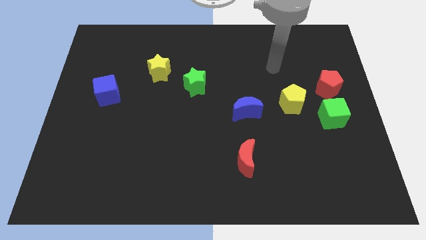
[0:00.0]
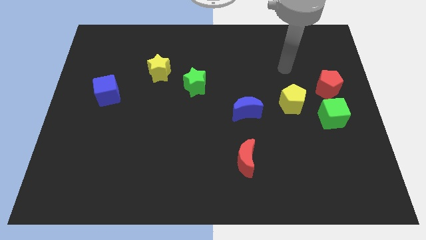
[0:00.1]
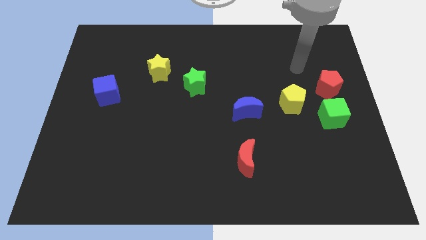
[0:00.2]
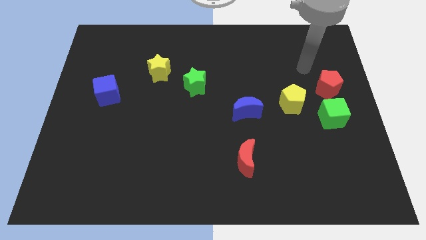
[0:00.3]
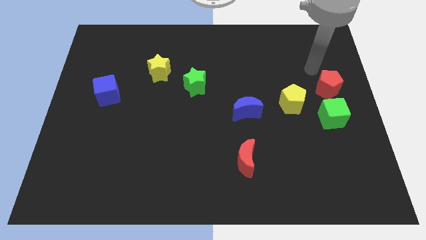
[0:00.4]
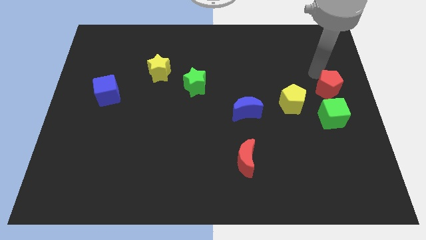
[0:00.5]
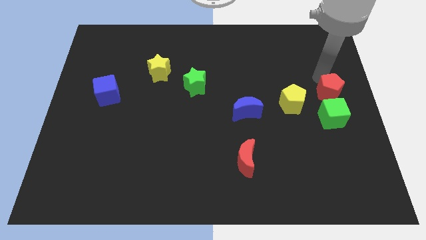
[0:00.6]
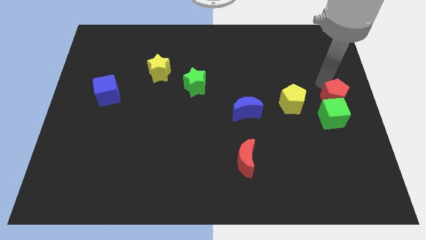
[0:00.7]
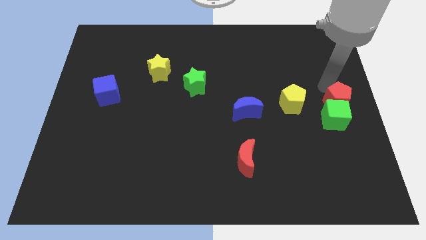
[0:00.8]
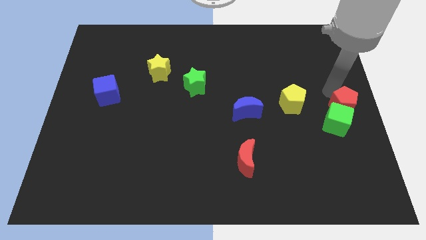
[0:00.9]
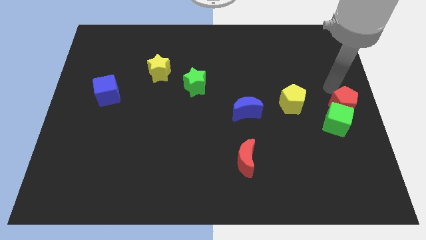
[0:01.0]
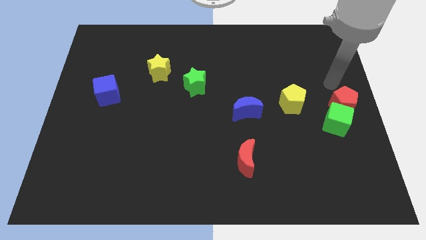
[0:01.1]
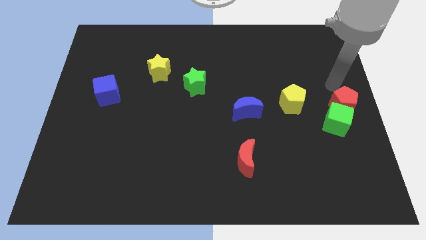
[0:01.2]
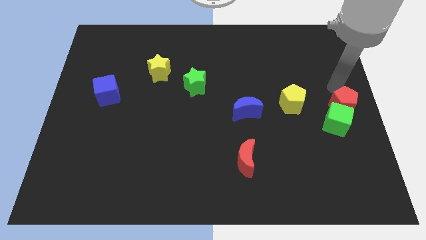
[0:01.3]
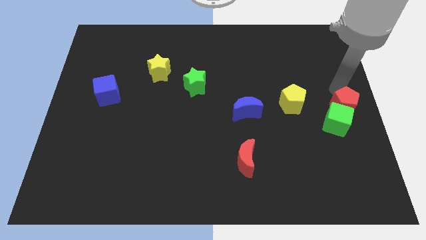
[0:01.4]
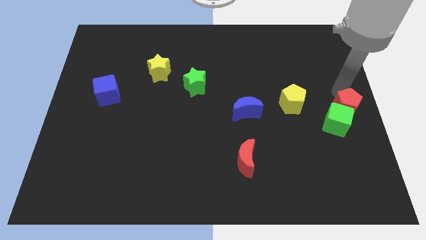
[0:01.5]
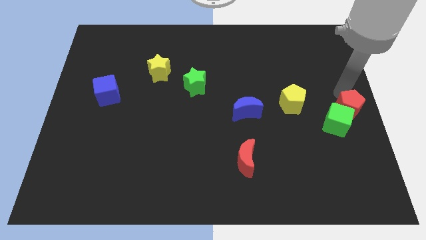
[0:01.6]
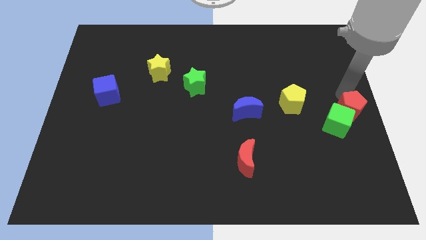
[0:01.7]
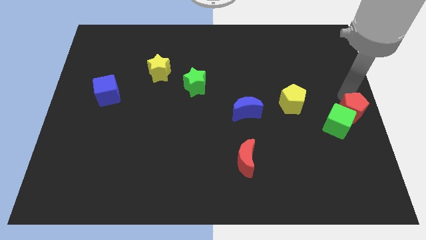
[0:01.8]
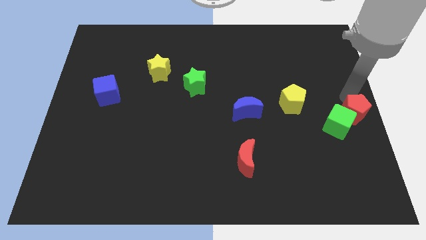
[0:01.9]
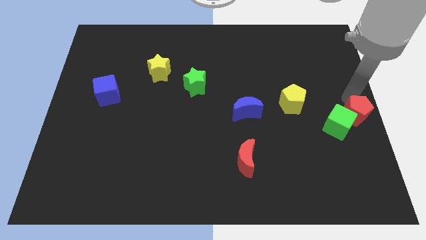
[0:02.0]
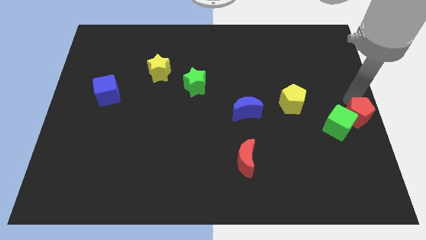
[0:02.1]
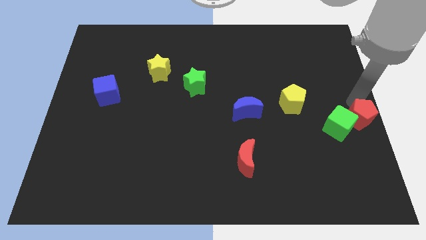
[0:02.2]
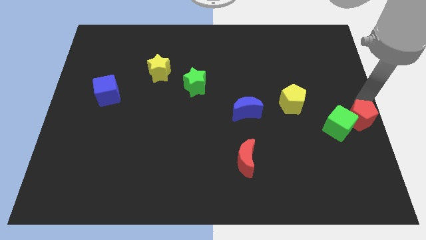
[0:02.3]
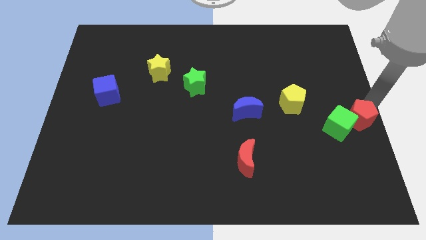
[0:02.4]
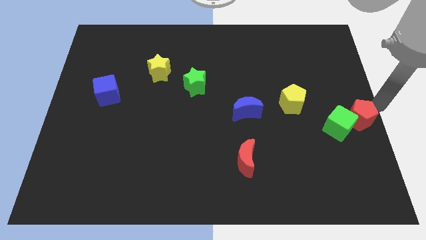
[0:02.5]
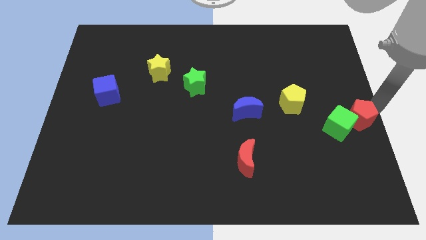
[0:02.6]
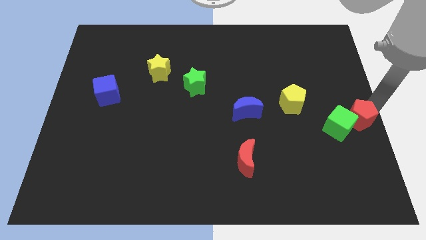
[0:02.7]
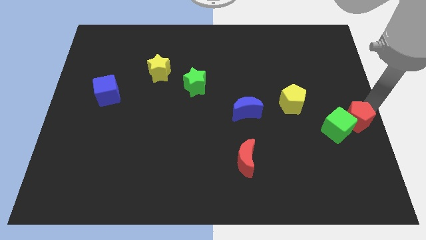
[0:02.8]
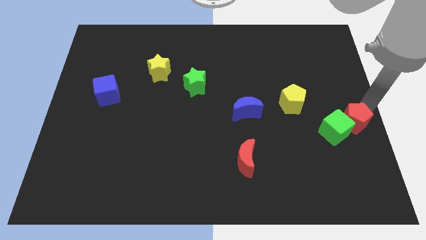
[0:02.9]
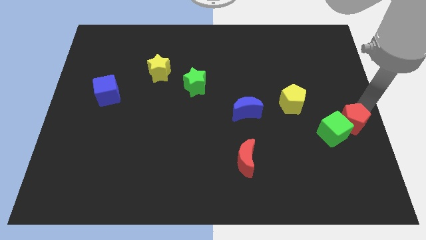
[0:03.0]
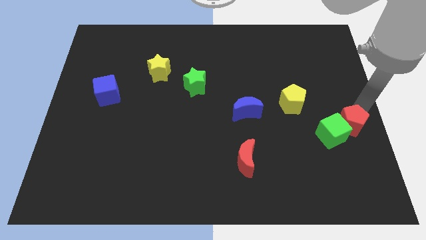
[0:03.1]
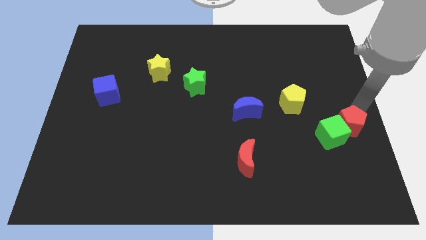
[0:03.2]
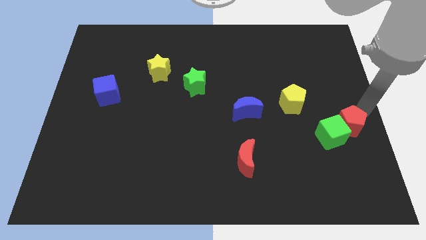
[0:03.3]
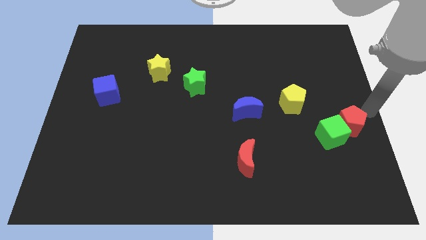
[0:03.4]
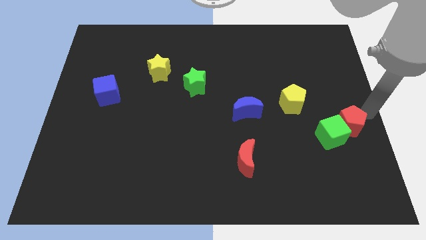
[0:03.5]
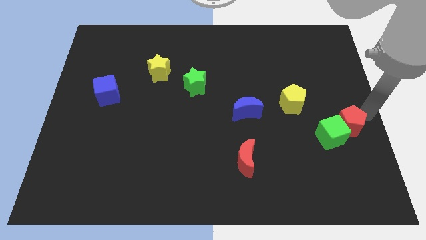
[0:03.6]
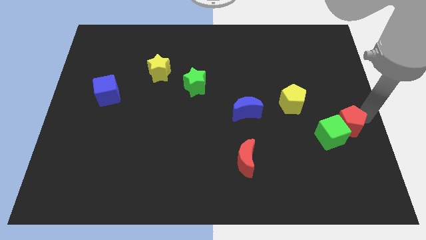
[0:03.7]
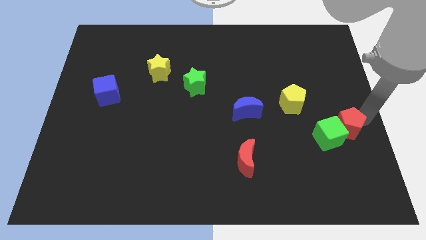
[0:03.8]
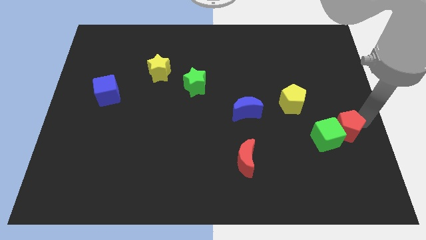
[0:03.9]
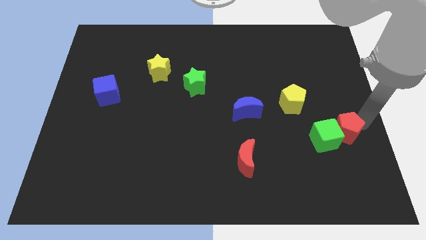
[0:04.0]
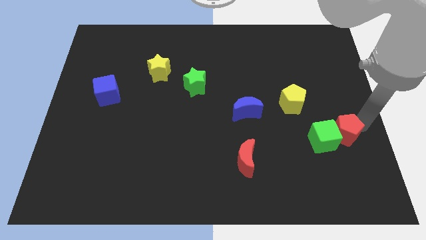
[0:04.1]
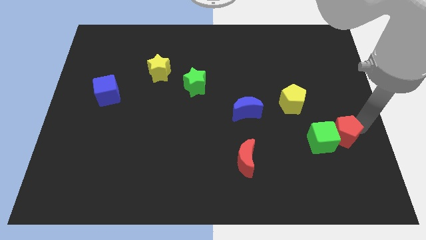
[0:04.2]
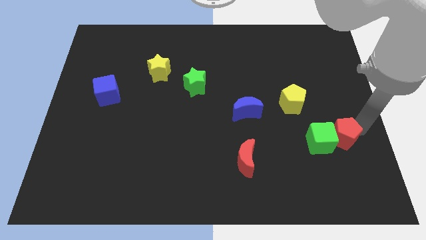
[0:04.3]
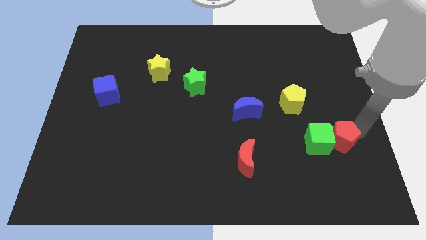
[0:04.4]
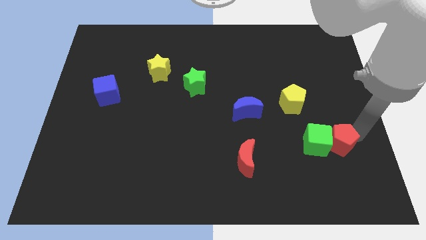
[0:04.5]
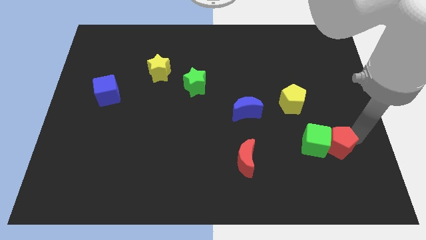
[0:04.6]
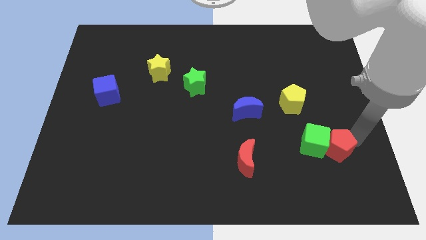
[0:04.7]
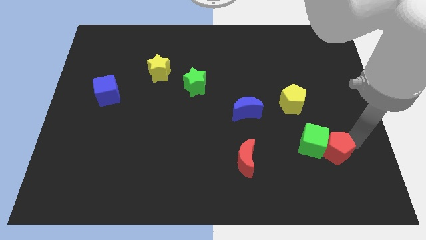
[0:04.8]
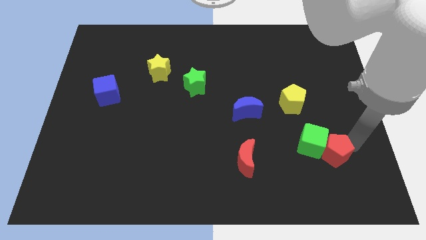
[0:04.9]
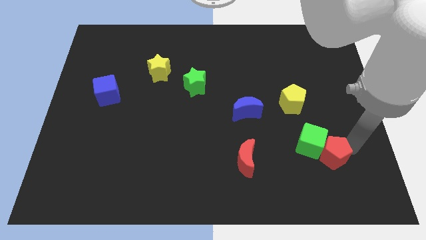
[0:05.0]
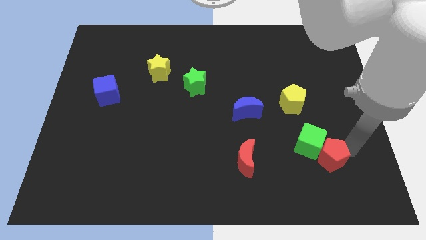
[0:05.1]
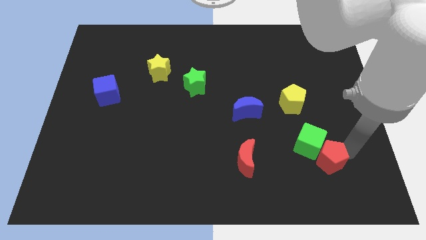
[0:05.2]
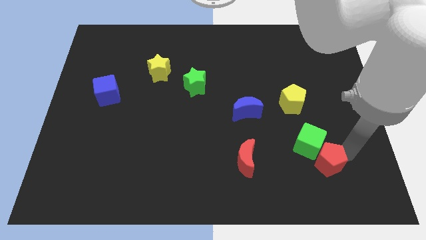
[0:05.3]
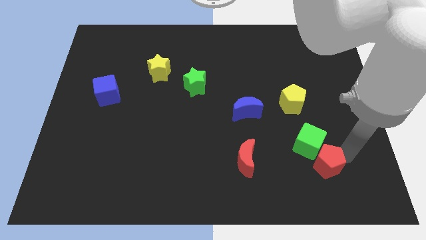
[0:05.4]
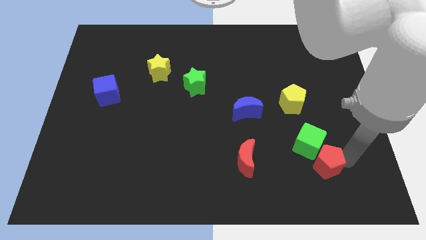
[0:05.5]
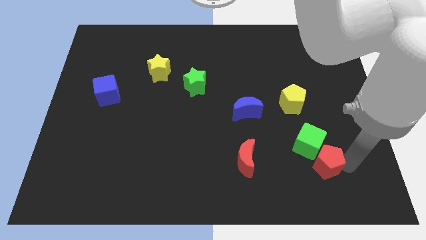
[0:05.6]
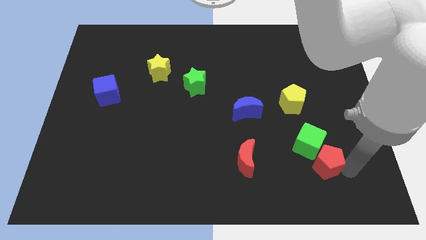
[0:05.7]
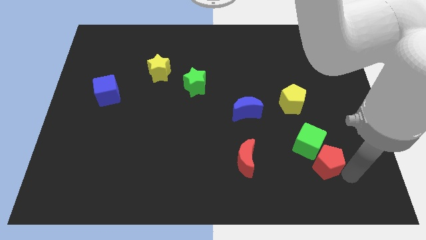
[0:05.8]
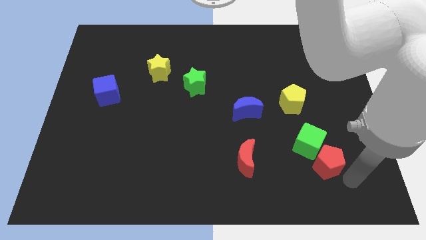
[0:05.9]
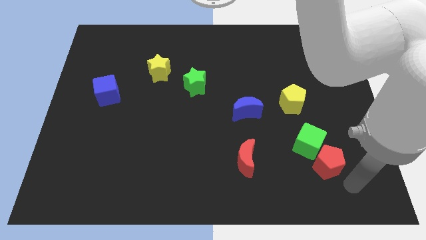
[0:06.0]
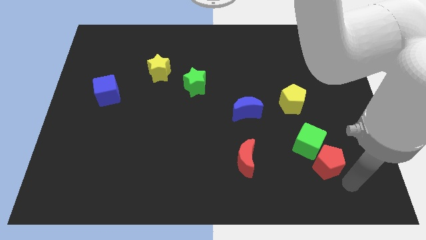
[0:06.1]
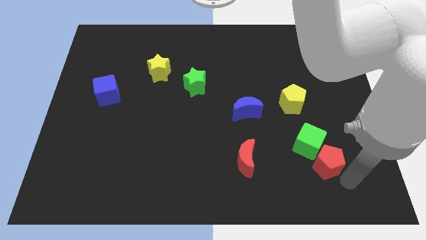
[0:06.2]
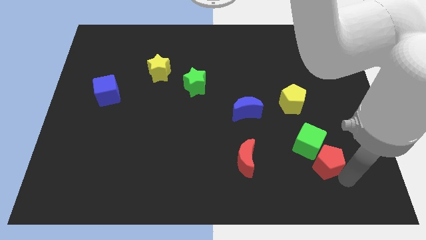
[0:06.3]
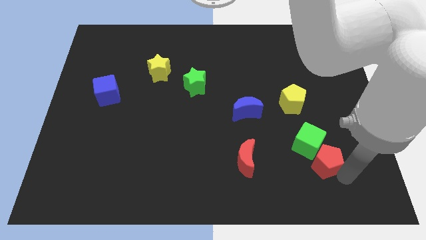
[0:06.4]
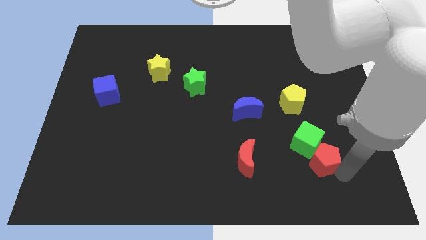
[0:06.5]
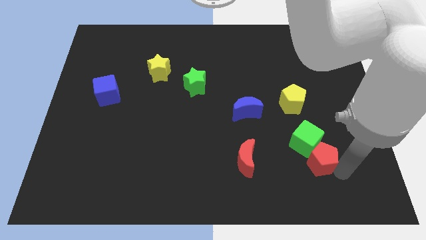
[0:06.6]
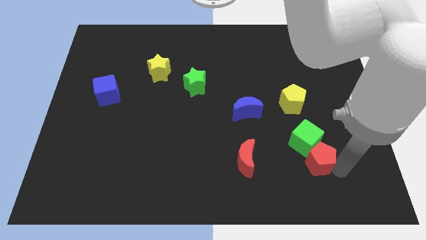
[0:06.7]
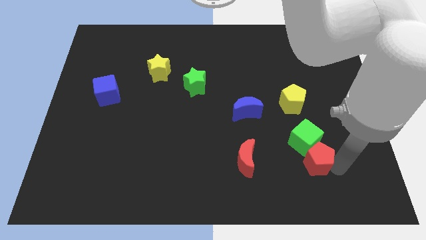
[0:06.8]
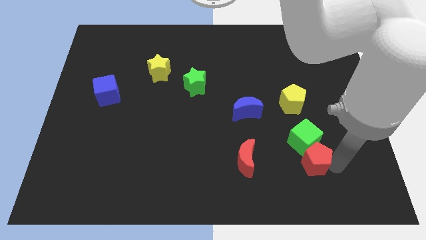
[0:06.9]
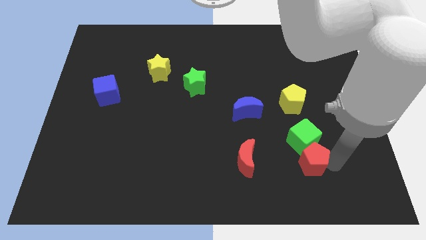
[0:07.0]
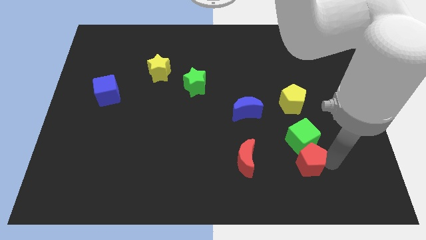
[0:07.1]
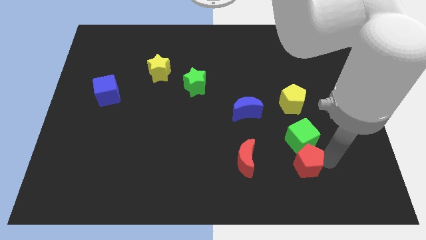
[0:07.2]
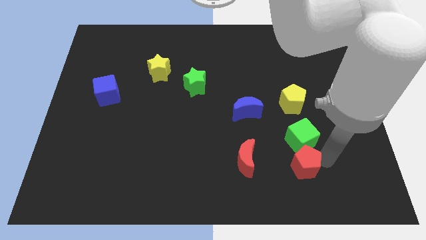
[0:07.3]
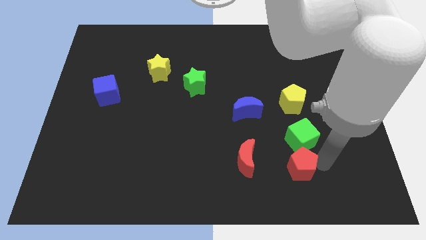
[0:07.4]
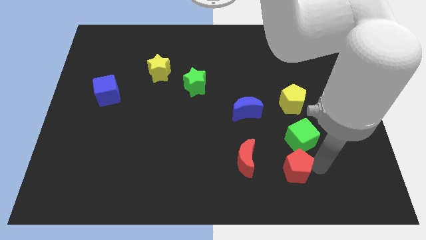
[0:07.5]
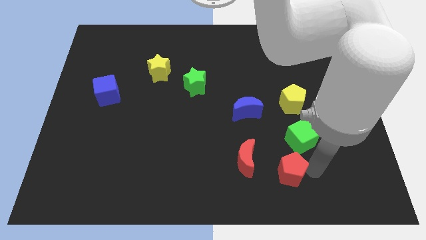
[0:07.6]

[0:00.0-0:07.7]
move the red pentagon diagonally down and to the right of the red moon
